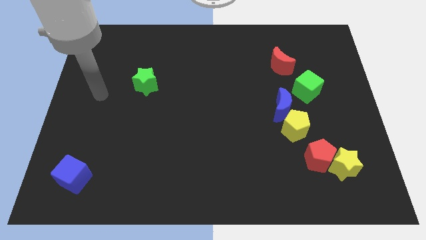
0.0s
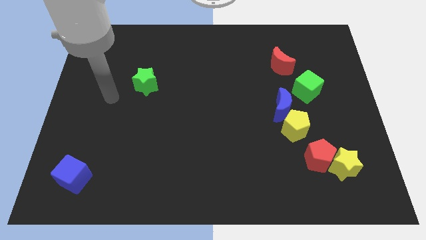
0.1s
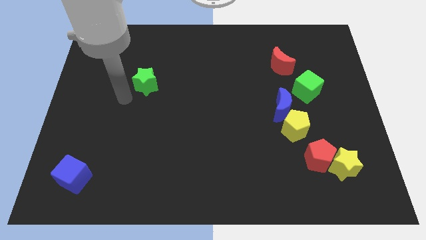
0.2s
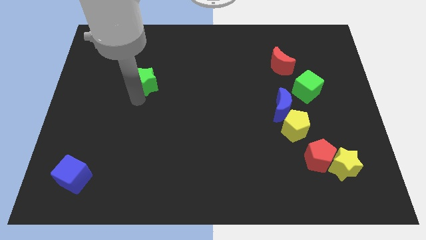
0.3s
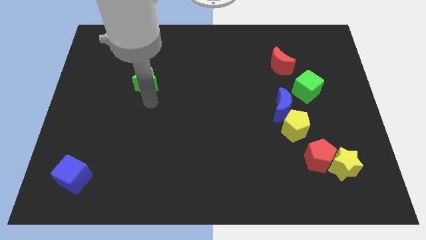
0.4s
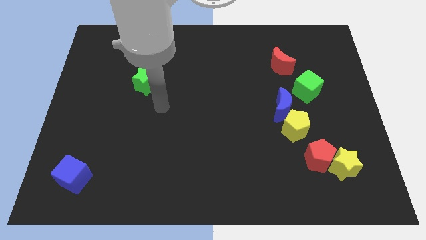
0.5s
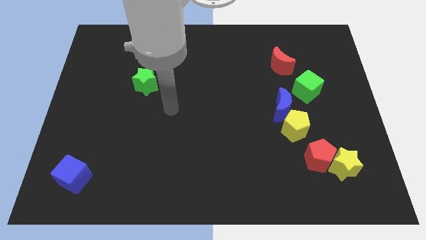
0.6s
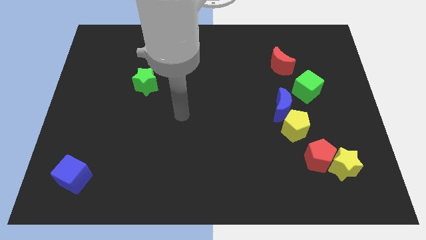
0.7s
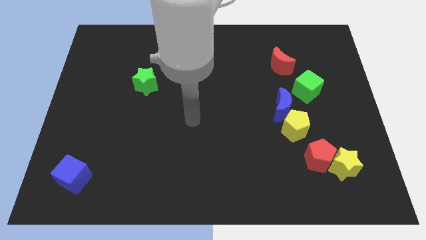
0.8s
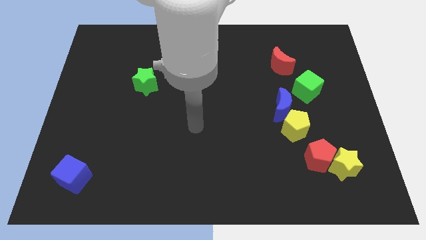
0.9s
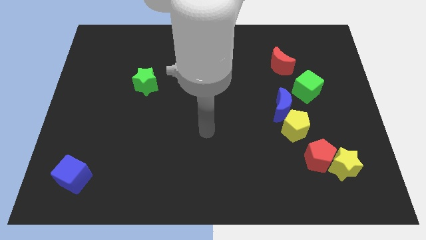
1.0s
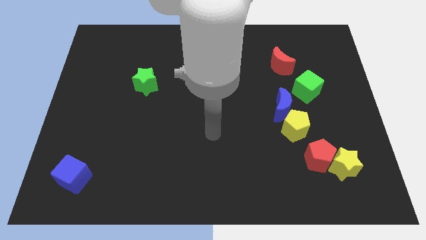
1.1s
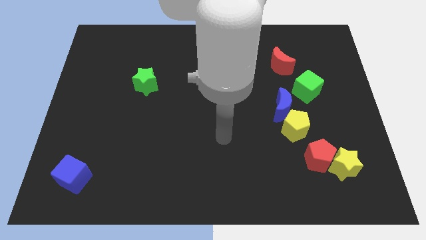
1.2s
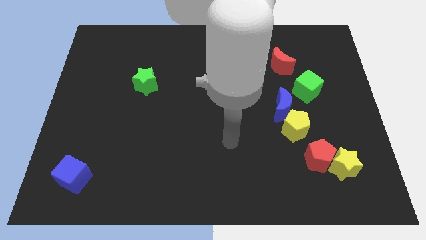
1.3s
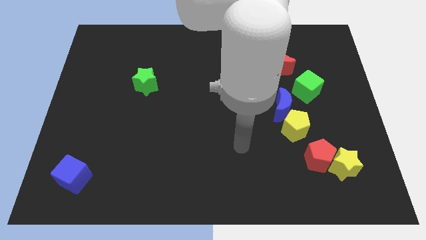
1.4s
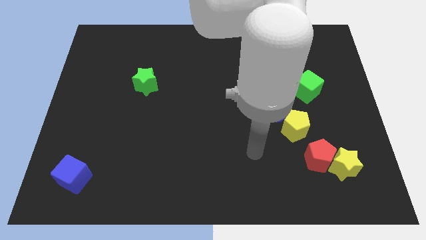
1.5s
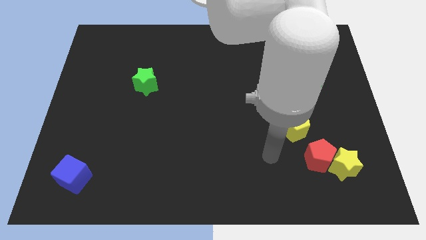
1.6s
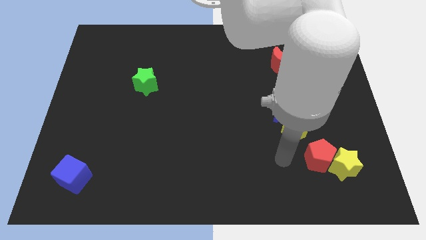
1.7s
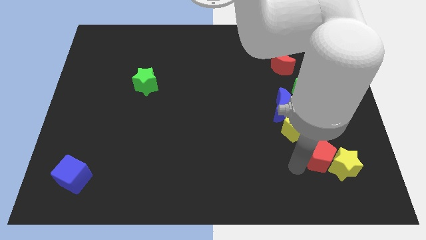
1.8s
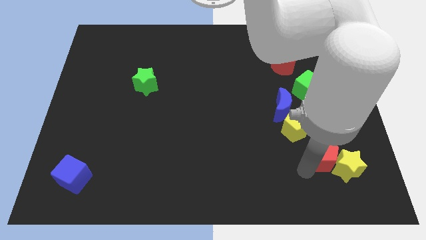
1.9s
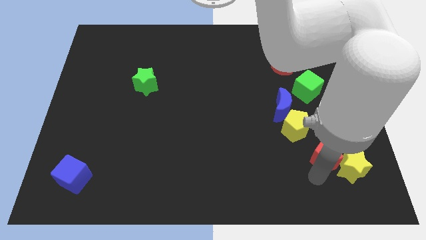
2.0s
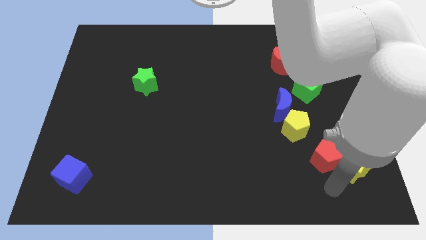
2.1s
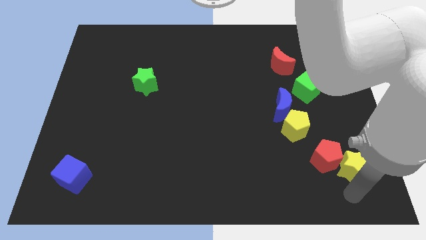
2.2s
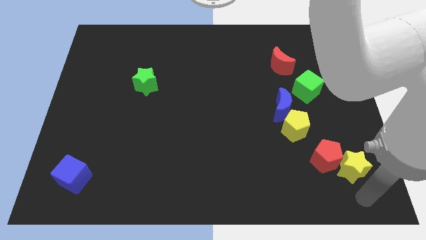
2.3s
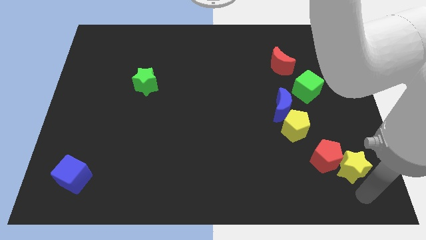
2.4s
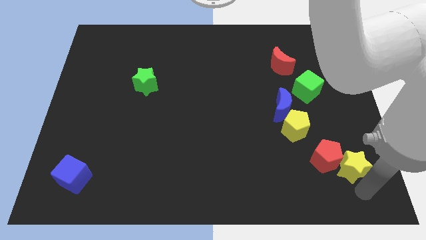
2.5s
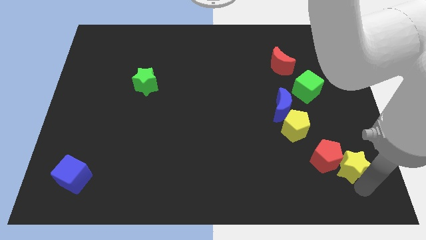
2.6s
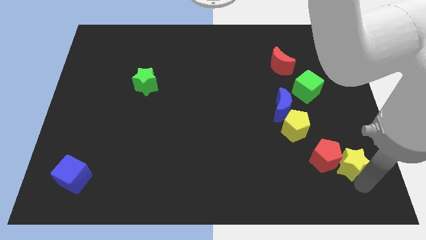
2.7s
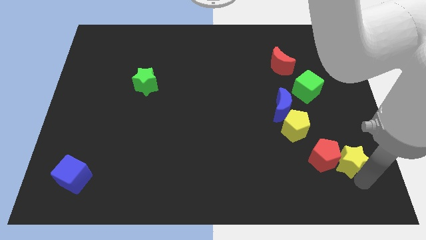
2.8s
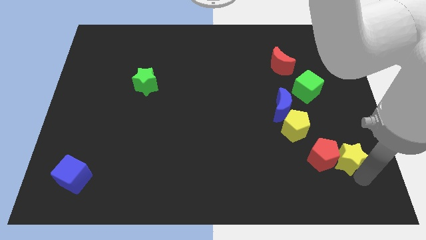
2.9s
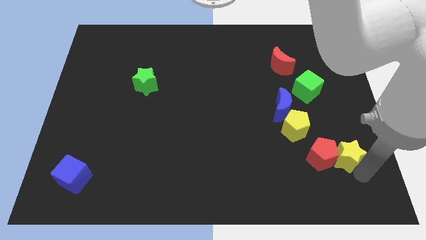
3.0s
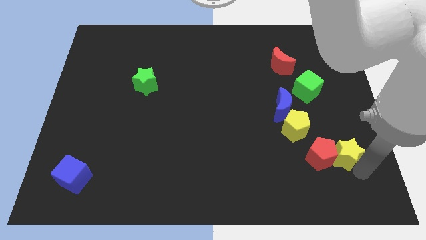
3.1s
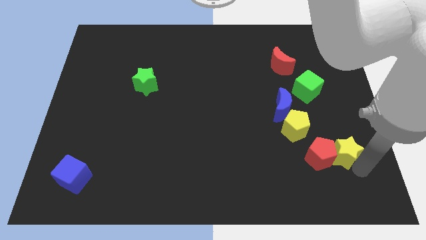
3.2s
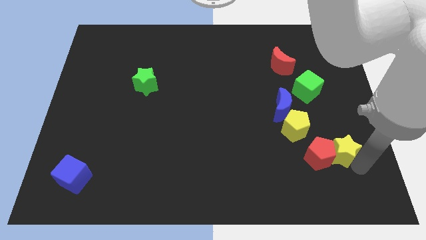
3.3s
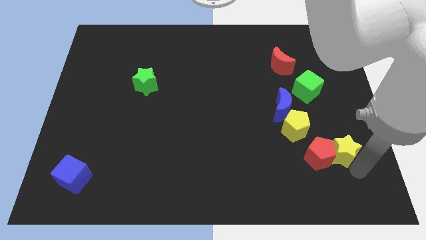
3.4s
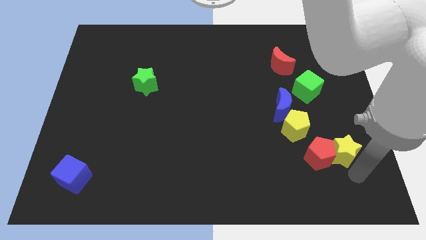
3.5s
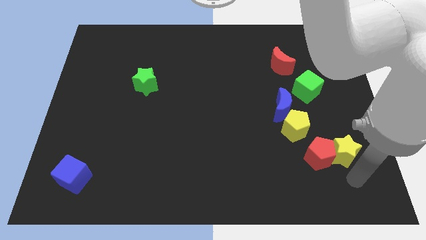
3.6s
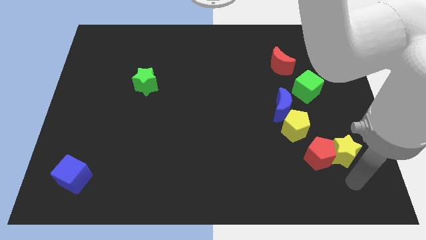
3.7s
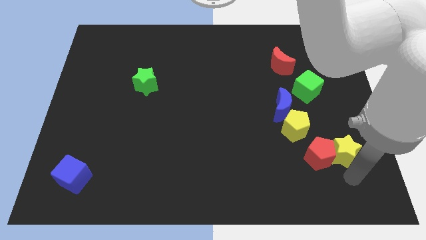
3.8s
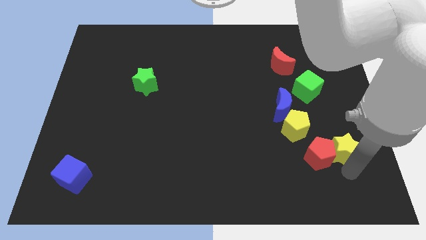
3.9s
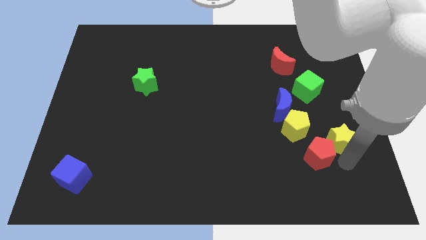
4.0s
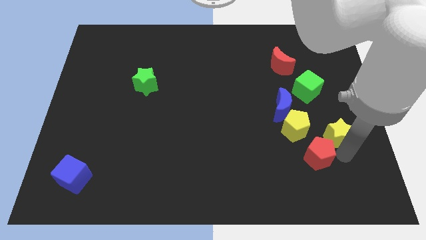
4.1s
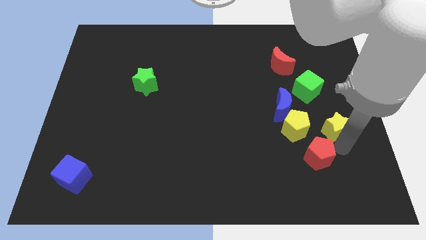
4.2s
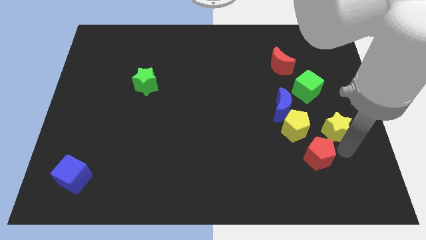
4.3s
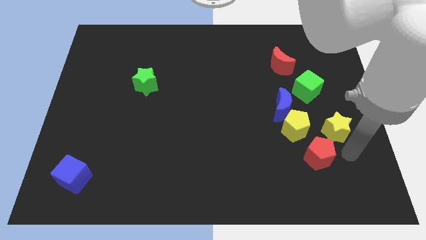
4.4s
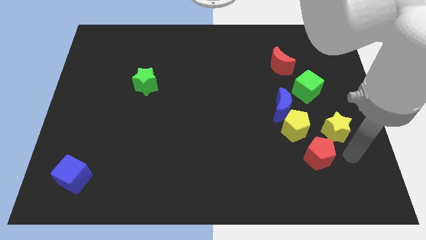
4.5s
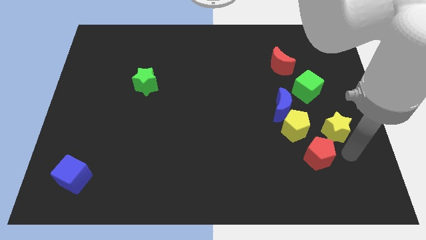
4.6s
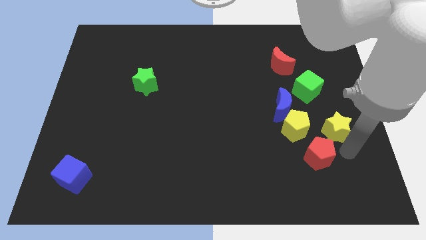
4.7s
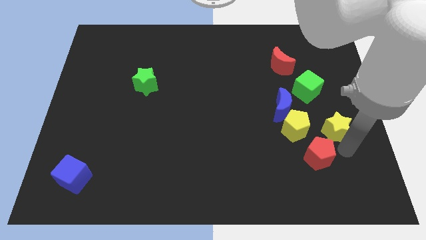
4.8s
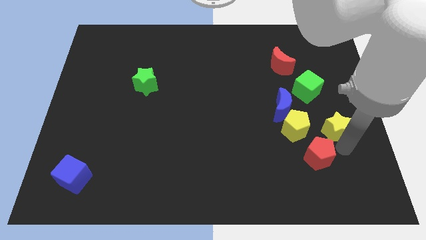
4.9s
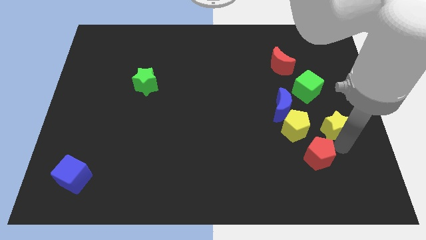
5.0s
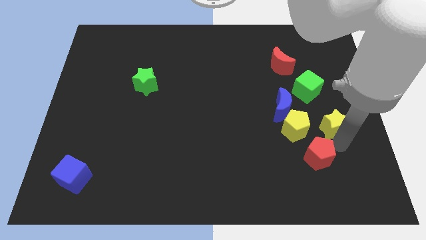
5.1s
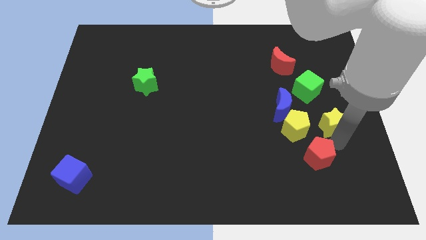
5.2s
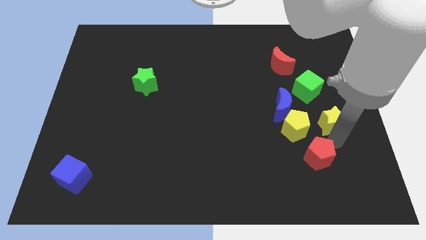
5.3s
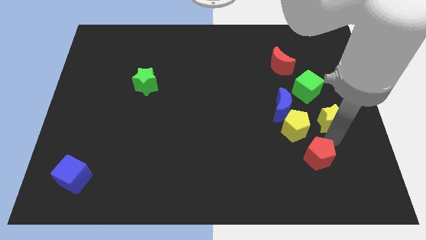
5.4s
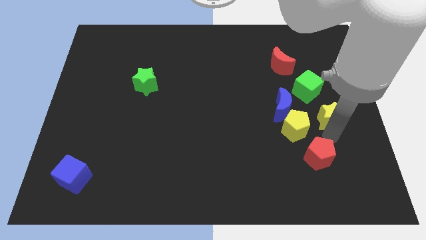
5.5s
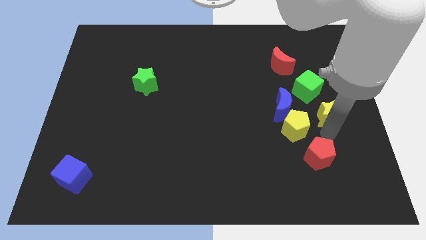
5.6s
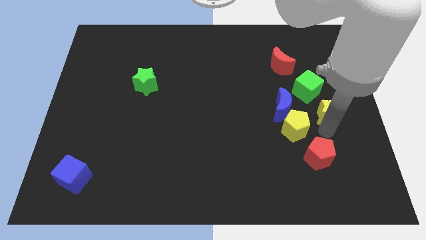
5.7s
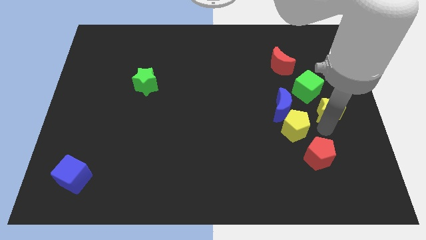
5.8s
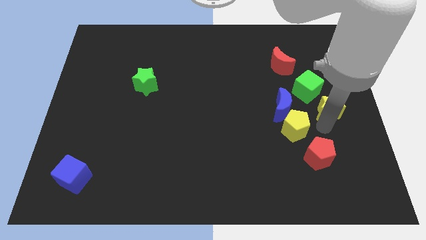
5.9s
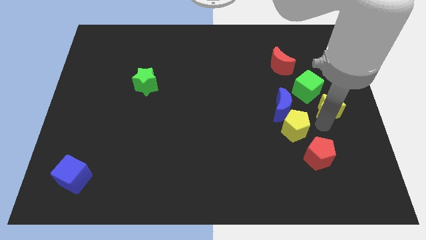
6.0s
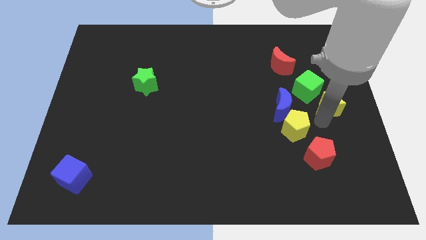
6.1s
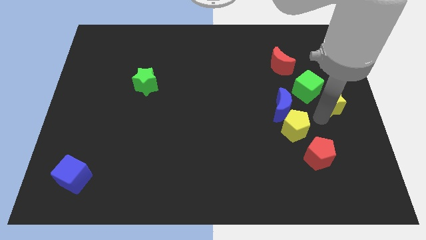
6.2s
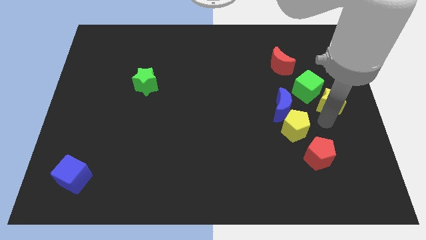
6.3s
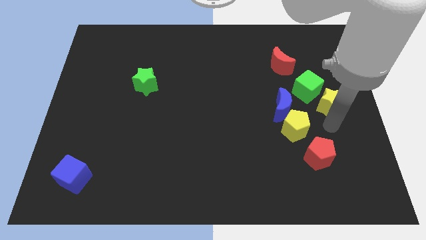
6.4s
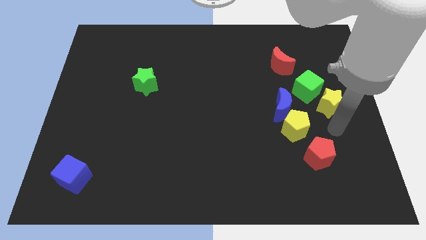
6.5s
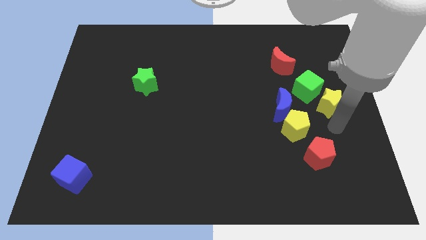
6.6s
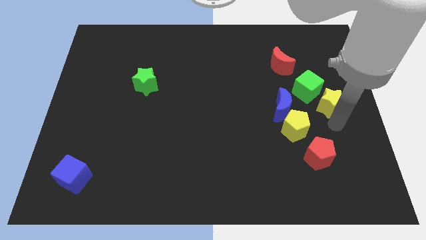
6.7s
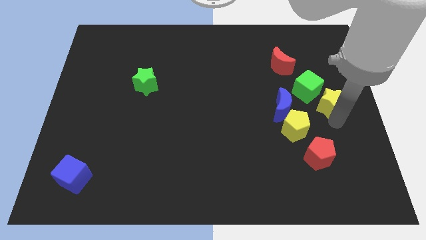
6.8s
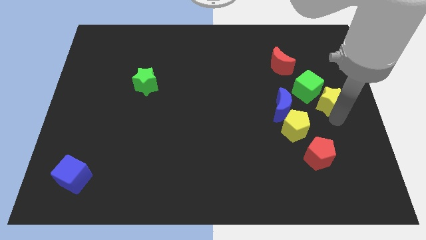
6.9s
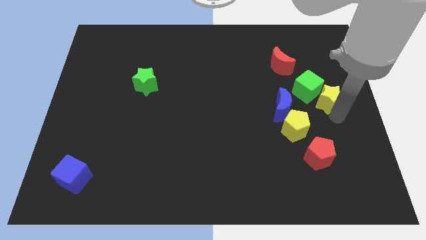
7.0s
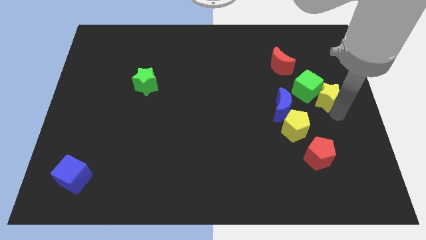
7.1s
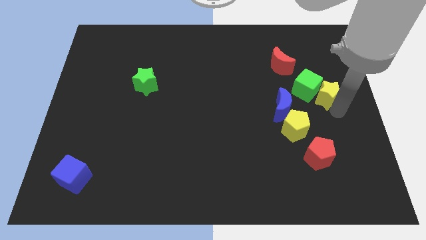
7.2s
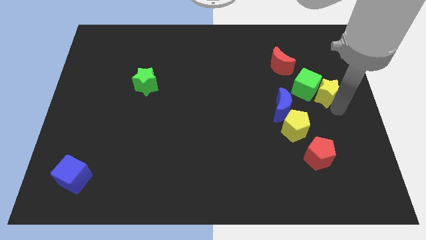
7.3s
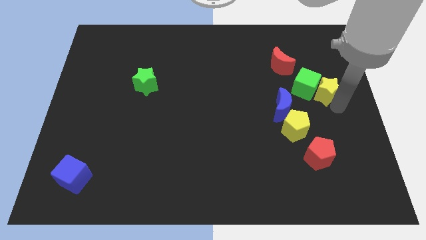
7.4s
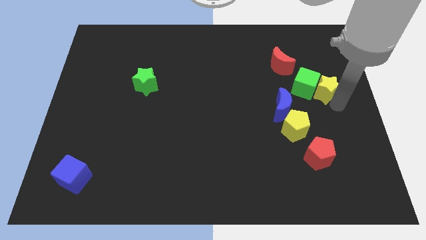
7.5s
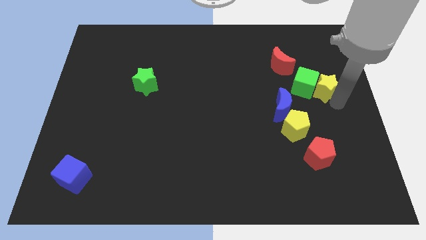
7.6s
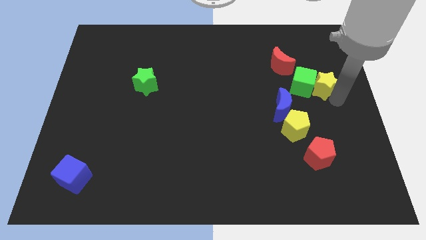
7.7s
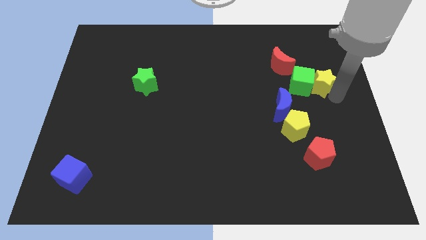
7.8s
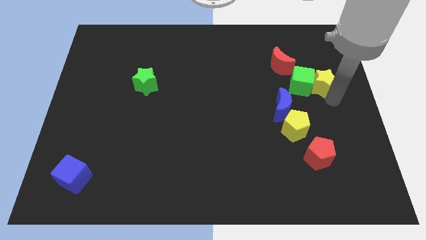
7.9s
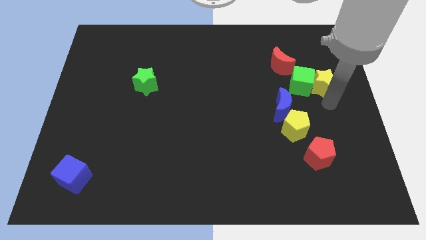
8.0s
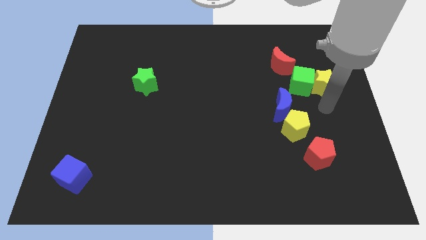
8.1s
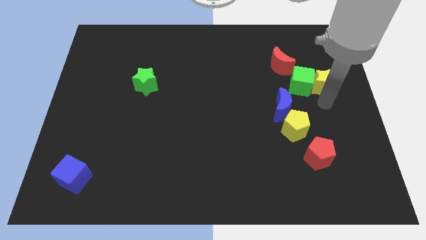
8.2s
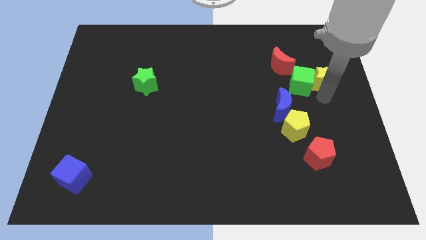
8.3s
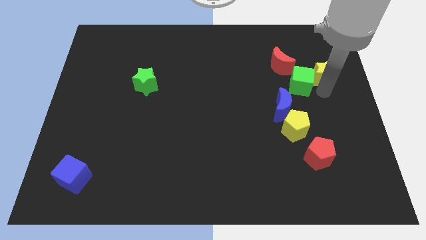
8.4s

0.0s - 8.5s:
slide the yellow star to the right of the red moon
